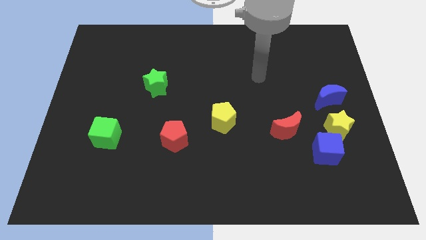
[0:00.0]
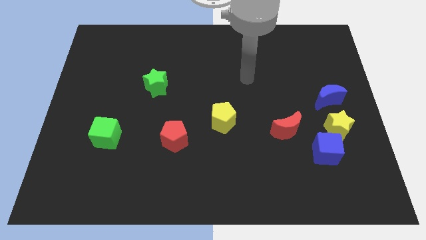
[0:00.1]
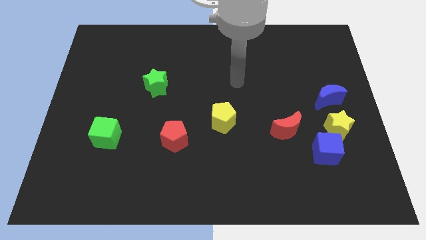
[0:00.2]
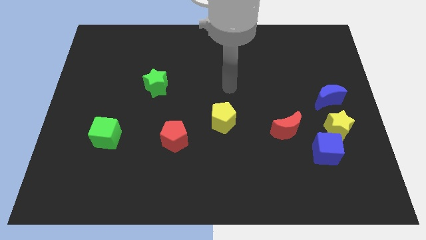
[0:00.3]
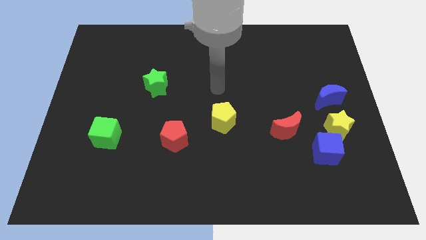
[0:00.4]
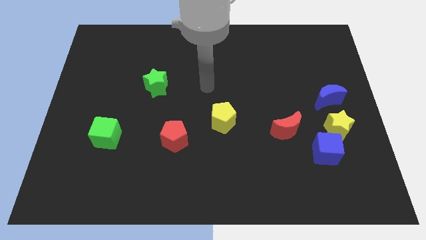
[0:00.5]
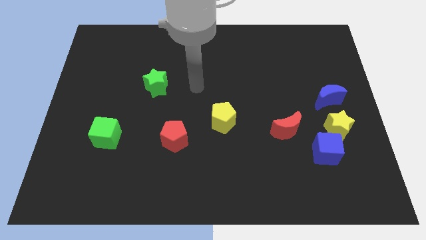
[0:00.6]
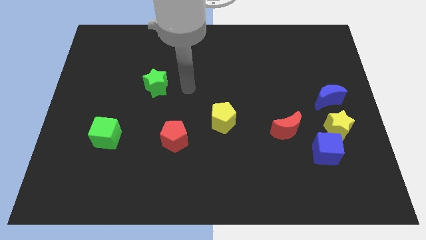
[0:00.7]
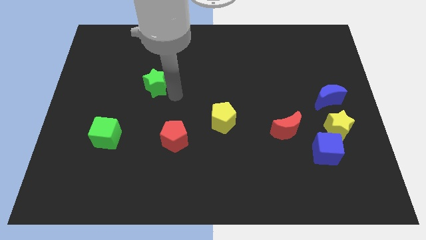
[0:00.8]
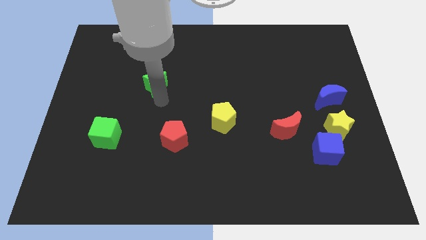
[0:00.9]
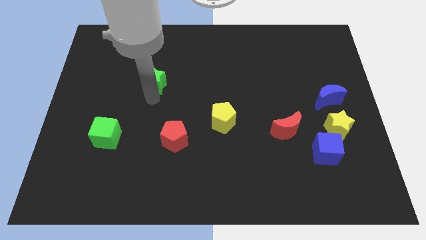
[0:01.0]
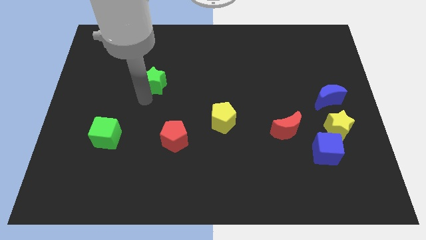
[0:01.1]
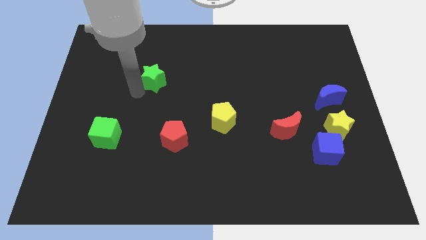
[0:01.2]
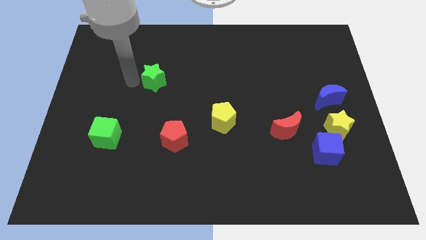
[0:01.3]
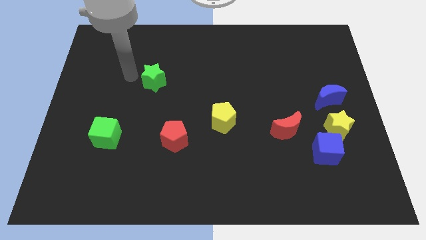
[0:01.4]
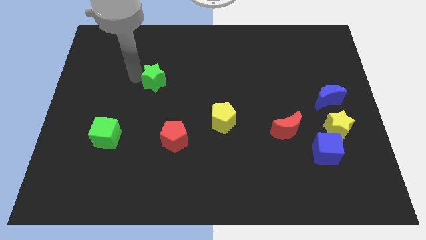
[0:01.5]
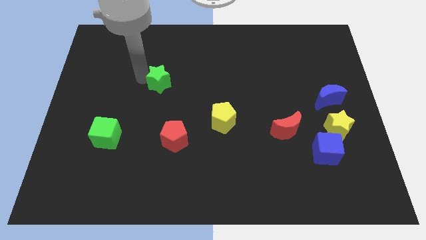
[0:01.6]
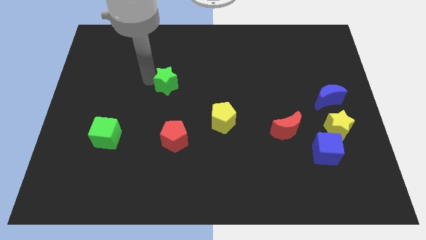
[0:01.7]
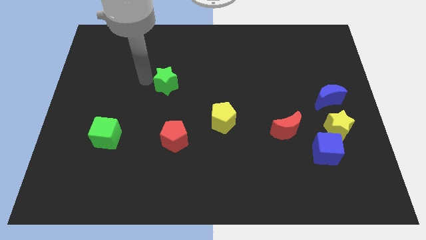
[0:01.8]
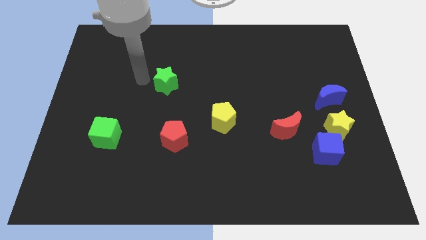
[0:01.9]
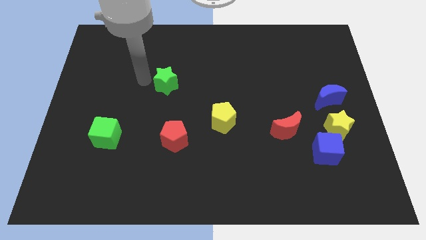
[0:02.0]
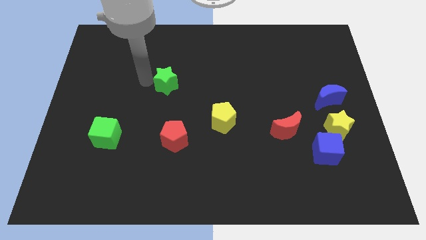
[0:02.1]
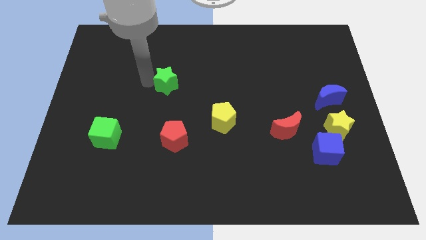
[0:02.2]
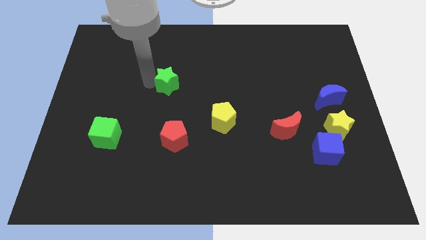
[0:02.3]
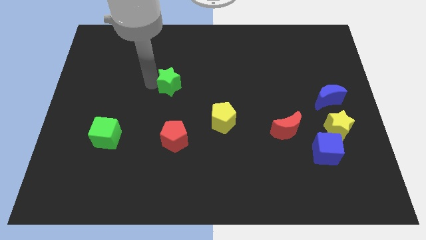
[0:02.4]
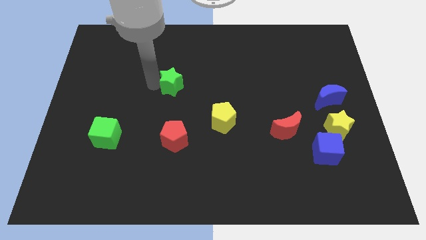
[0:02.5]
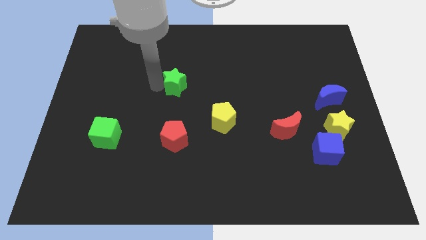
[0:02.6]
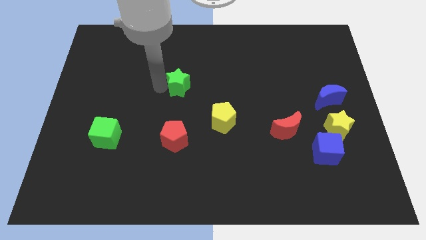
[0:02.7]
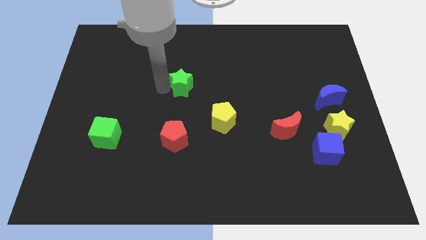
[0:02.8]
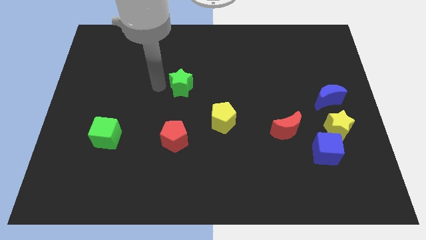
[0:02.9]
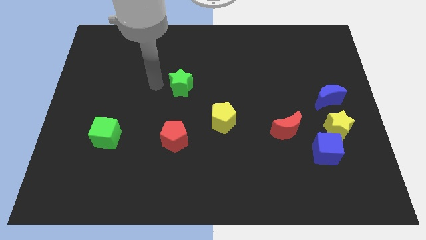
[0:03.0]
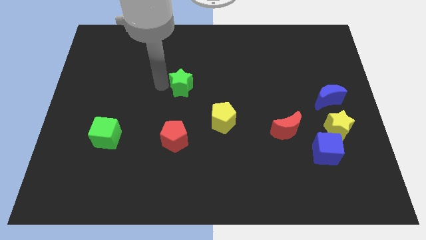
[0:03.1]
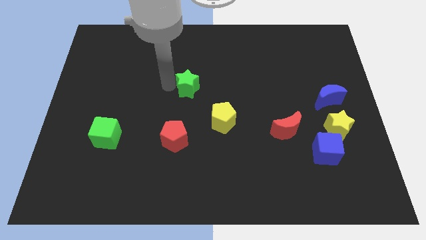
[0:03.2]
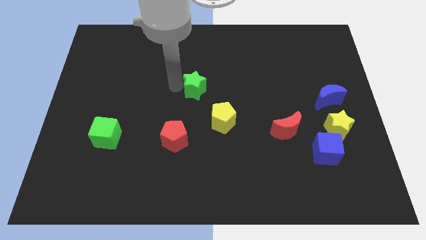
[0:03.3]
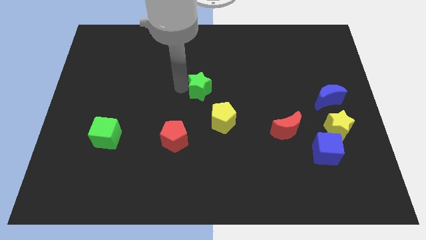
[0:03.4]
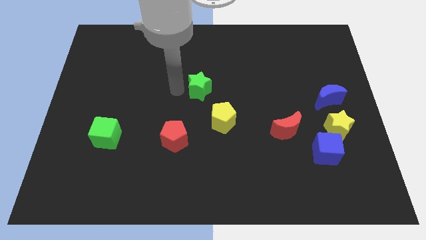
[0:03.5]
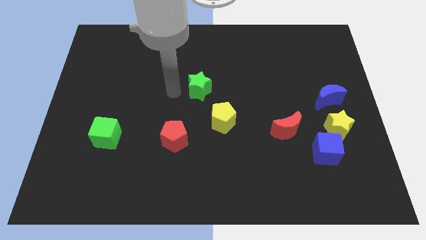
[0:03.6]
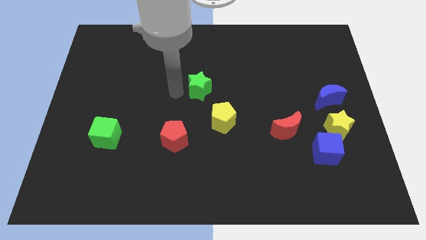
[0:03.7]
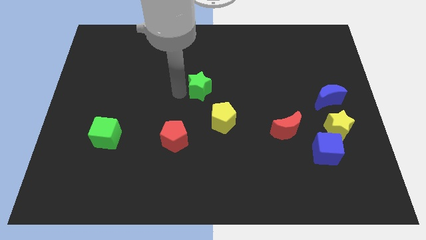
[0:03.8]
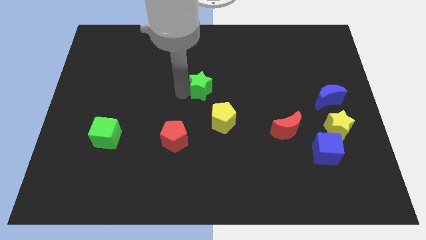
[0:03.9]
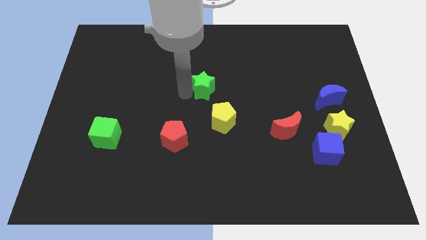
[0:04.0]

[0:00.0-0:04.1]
push the green star to the top of the yellow pentagon

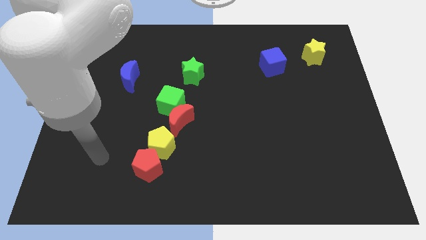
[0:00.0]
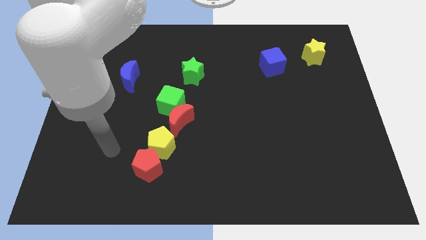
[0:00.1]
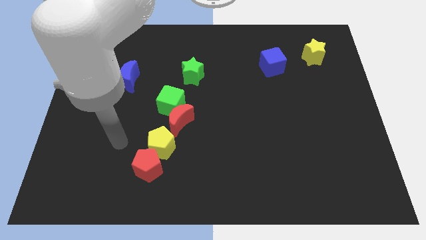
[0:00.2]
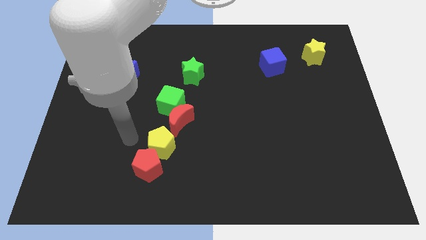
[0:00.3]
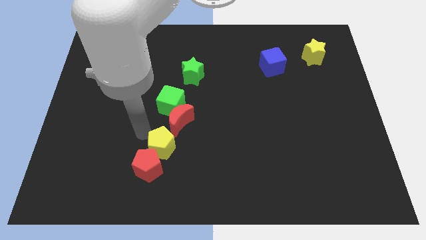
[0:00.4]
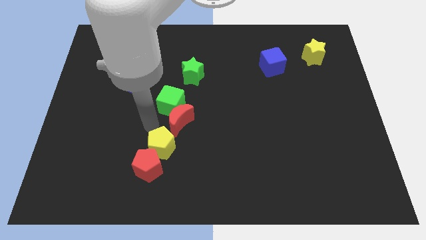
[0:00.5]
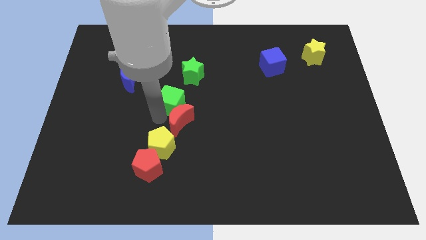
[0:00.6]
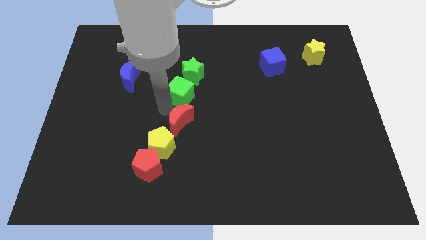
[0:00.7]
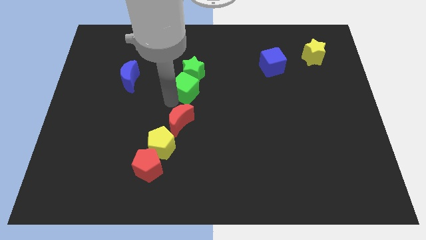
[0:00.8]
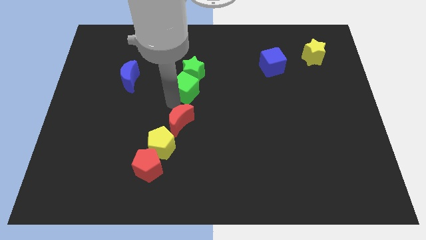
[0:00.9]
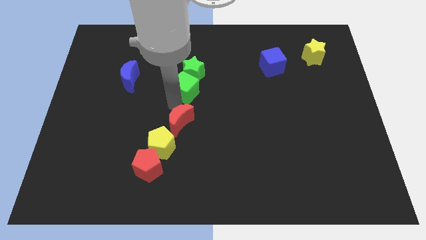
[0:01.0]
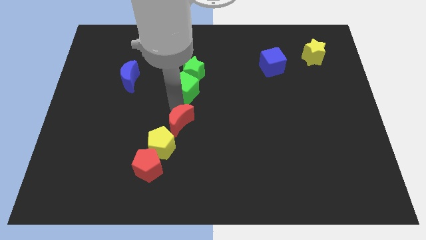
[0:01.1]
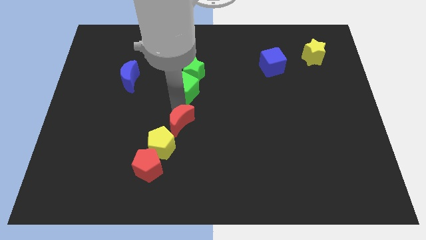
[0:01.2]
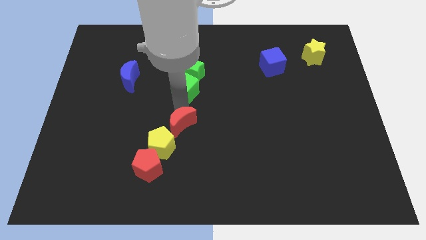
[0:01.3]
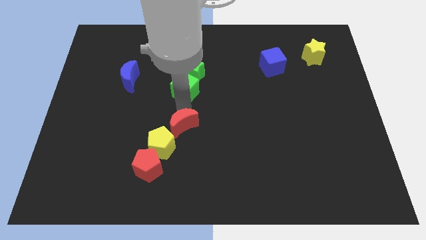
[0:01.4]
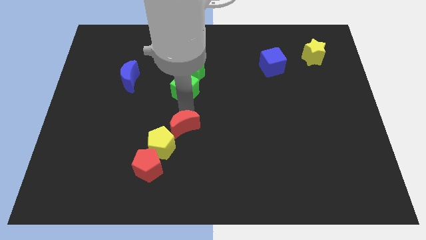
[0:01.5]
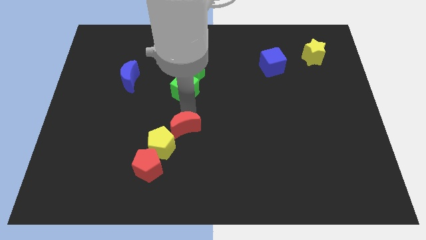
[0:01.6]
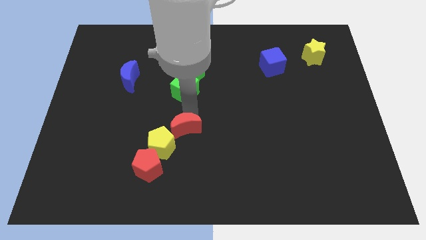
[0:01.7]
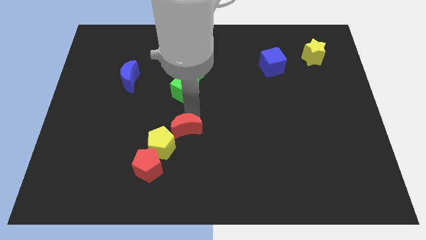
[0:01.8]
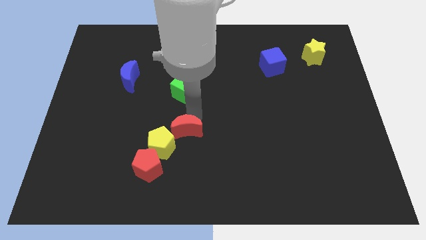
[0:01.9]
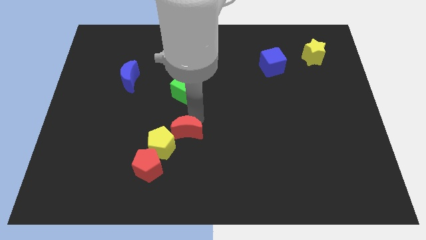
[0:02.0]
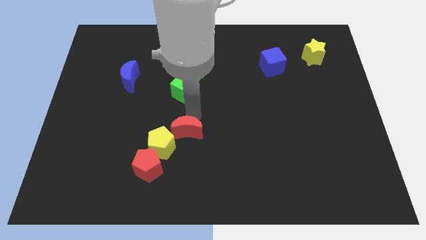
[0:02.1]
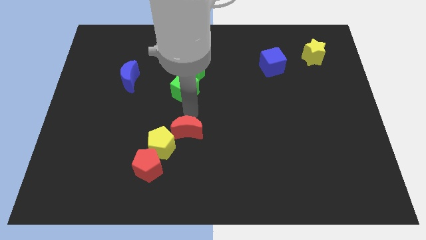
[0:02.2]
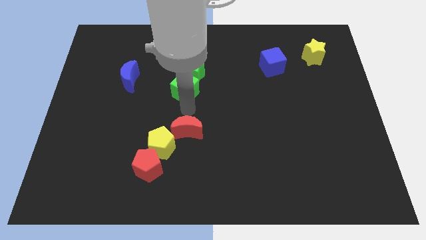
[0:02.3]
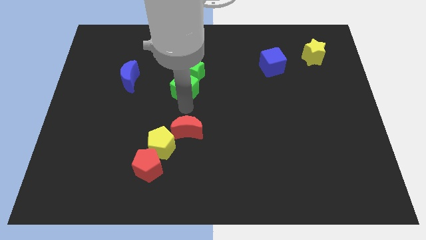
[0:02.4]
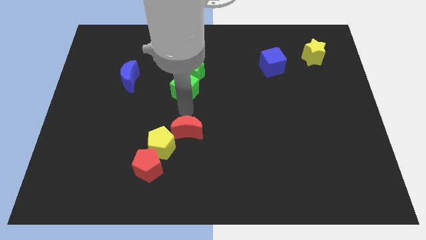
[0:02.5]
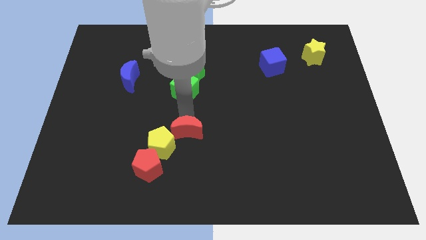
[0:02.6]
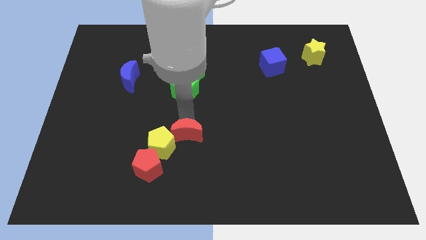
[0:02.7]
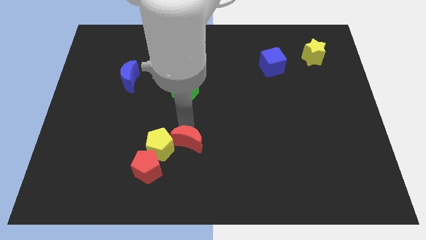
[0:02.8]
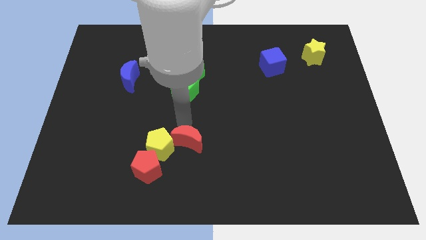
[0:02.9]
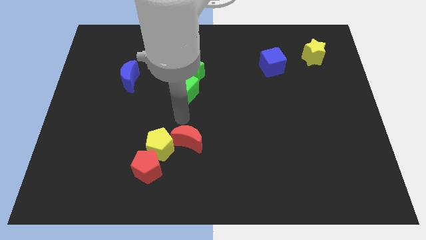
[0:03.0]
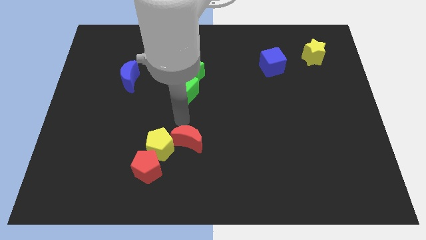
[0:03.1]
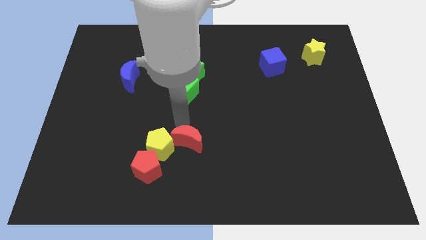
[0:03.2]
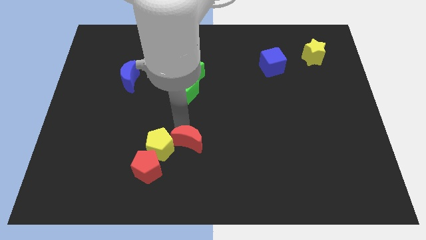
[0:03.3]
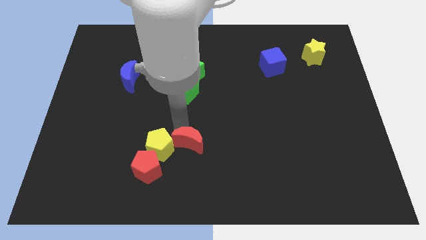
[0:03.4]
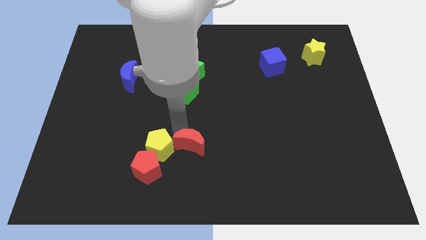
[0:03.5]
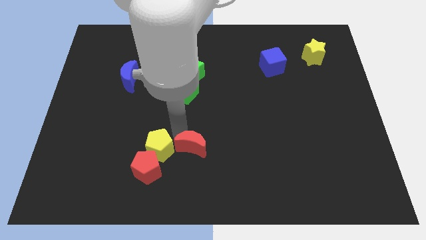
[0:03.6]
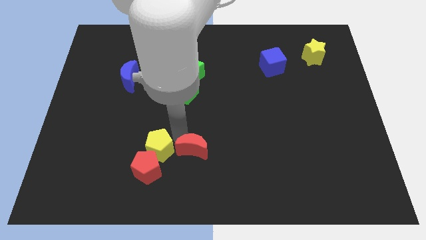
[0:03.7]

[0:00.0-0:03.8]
put the red moon to the right side of the red pentagon
